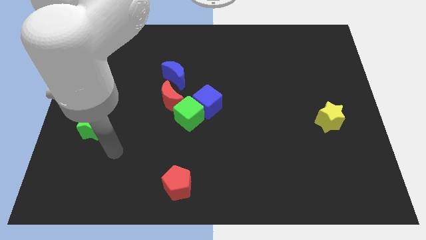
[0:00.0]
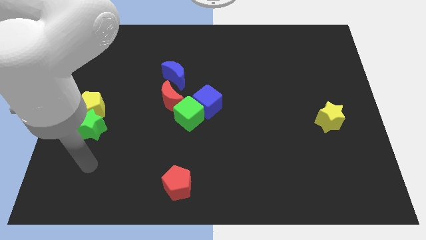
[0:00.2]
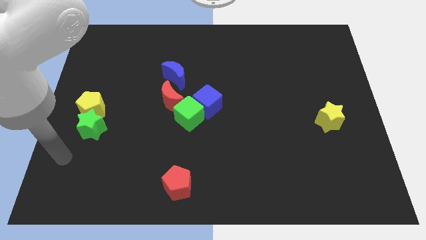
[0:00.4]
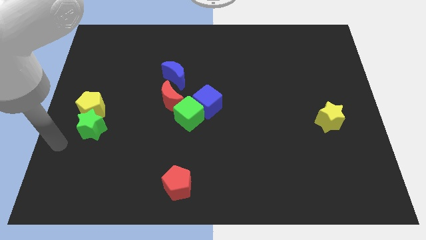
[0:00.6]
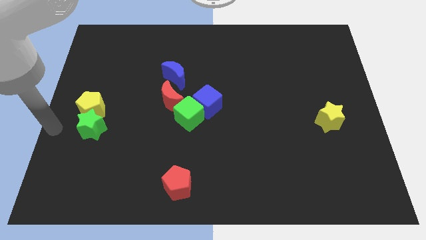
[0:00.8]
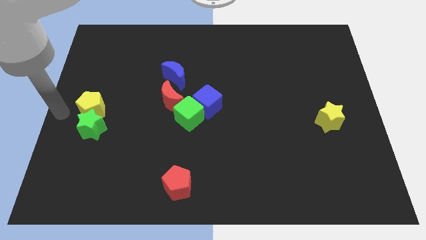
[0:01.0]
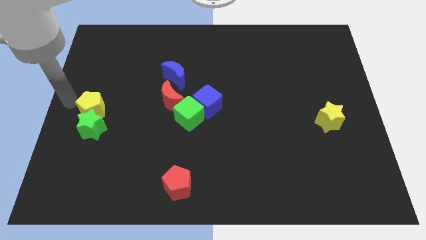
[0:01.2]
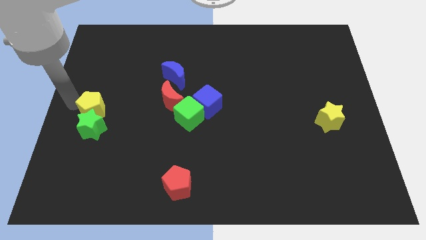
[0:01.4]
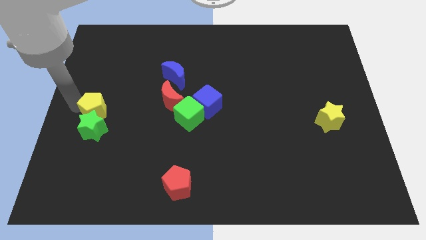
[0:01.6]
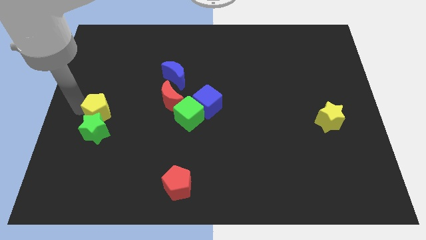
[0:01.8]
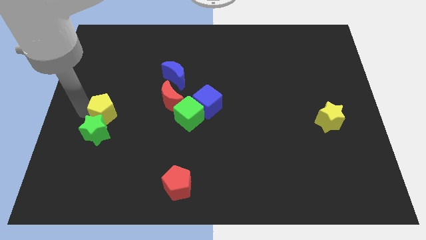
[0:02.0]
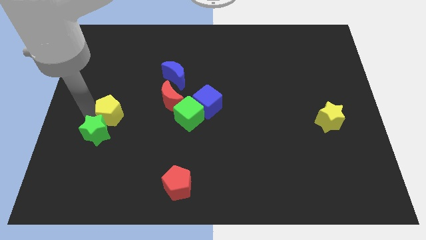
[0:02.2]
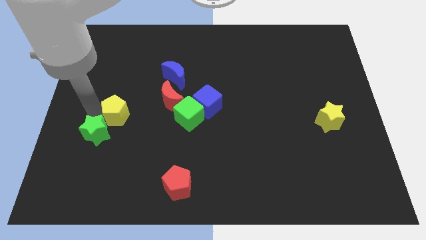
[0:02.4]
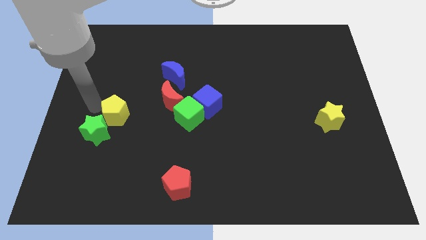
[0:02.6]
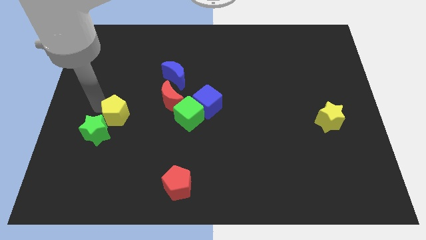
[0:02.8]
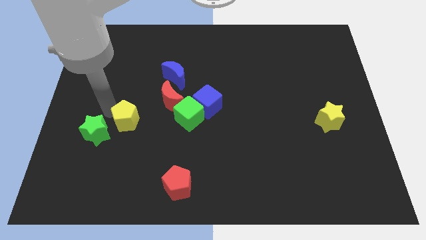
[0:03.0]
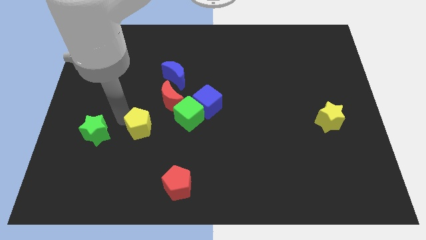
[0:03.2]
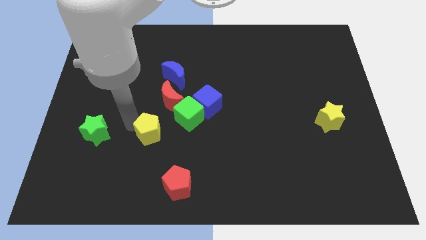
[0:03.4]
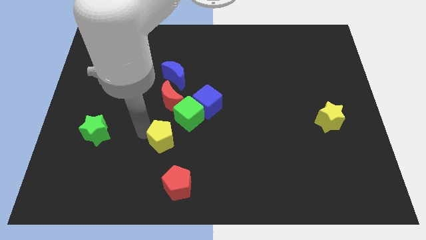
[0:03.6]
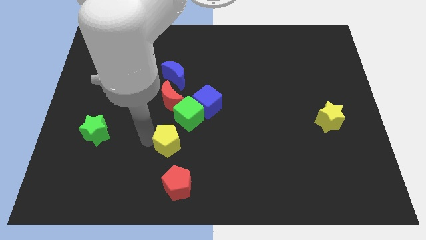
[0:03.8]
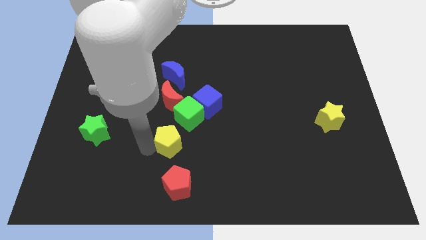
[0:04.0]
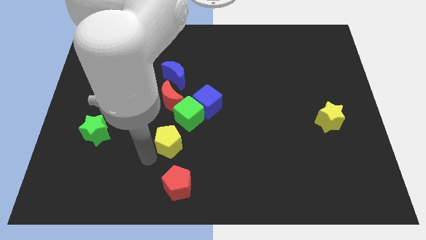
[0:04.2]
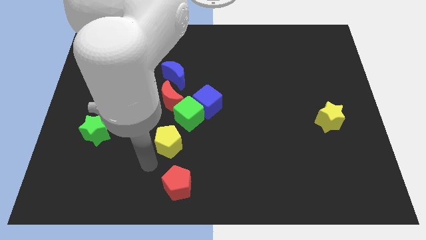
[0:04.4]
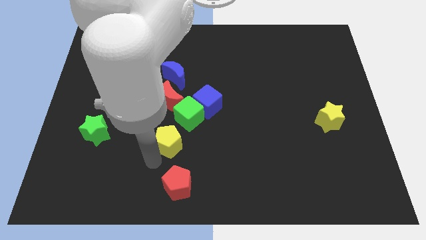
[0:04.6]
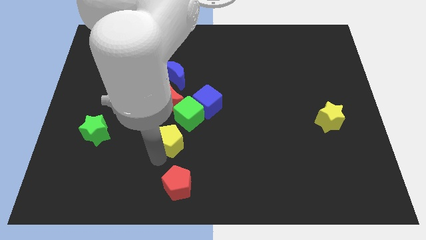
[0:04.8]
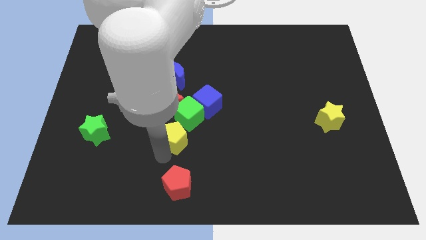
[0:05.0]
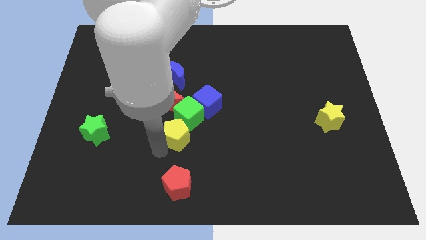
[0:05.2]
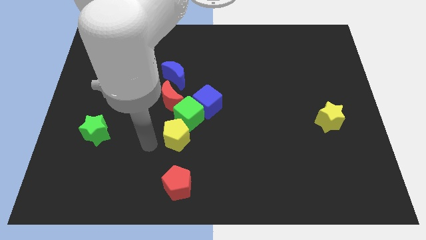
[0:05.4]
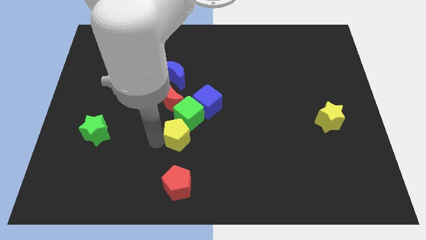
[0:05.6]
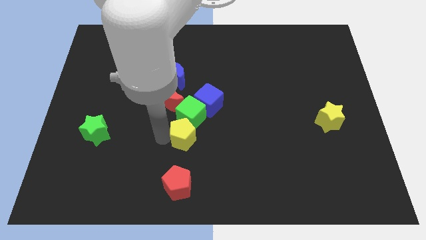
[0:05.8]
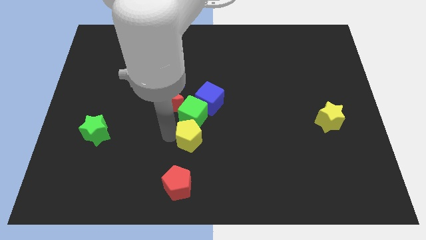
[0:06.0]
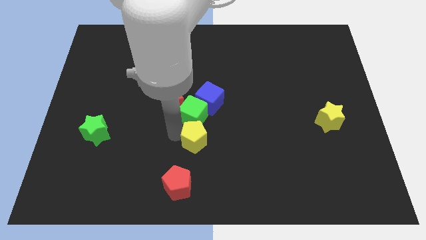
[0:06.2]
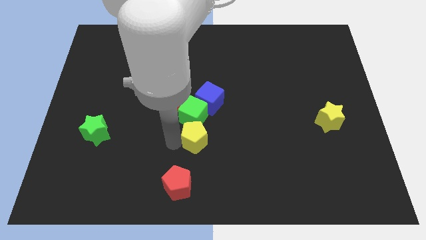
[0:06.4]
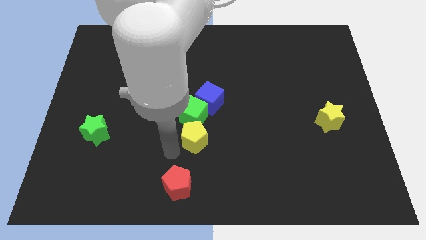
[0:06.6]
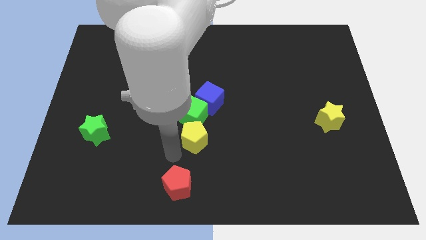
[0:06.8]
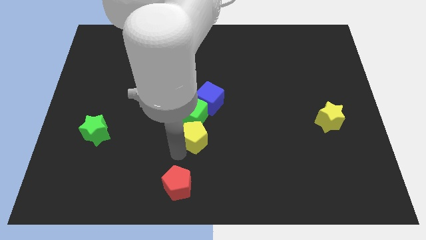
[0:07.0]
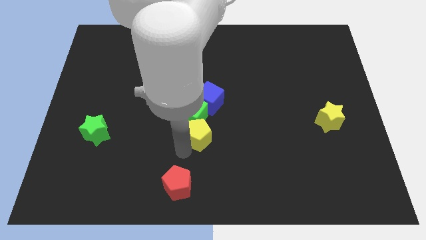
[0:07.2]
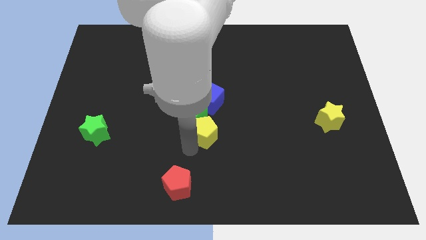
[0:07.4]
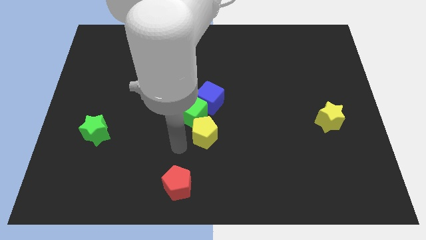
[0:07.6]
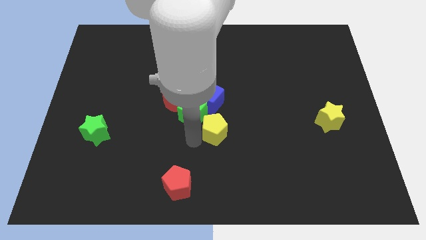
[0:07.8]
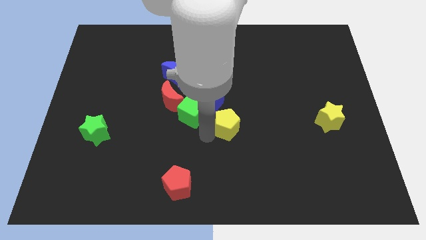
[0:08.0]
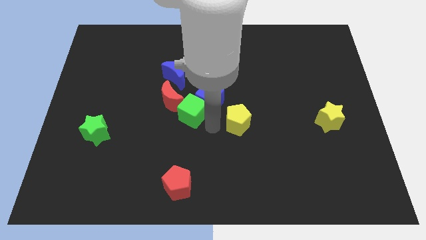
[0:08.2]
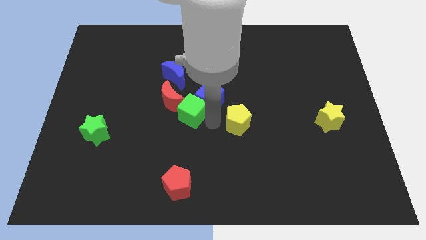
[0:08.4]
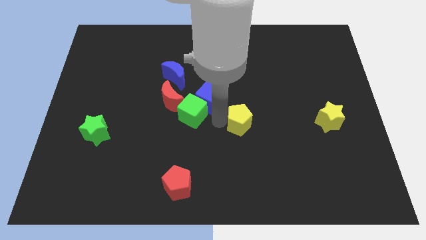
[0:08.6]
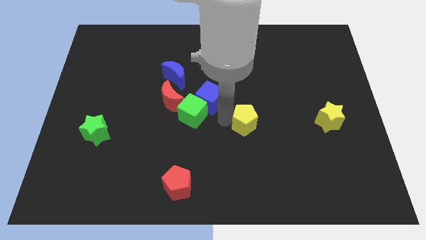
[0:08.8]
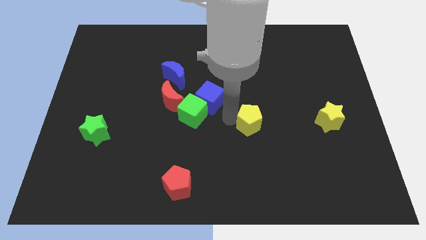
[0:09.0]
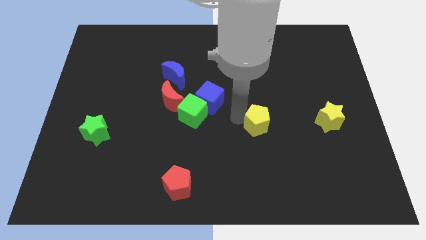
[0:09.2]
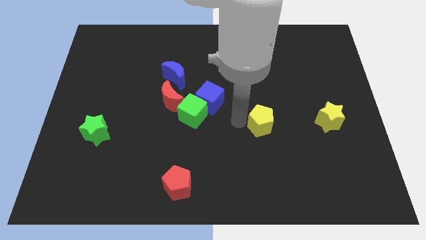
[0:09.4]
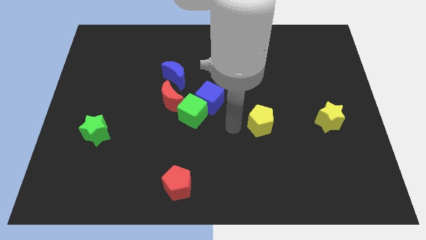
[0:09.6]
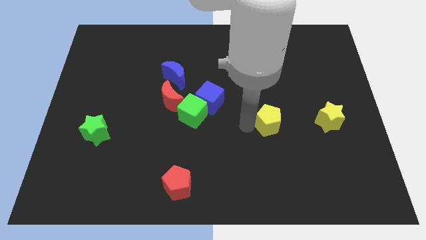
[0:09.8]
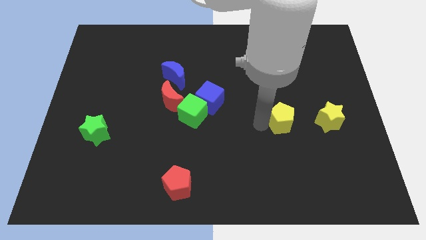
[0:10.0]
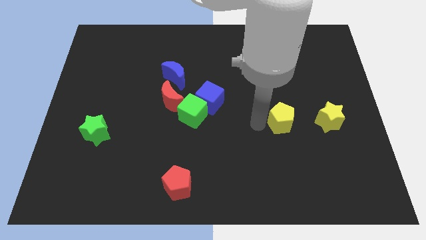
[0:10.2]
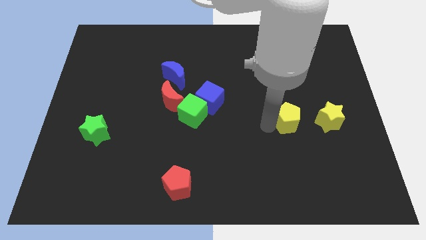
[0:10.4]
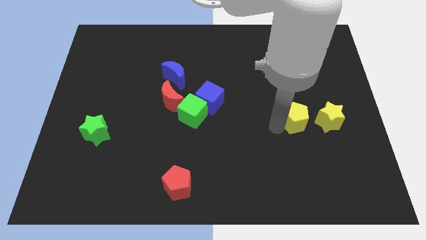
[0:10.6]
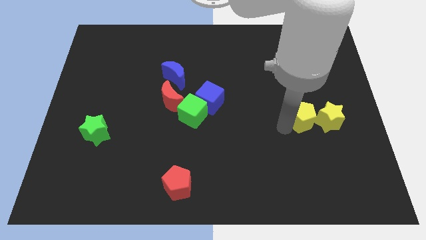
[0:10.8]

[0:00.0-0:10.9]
put the yellow pentagon next to the yellow star

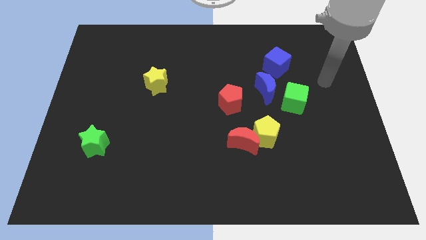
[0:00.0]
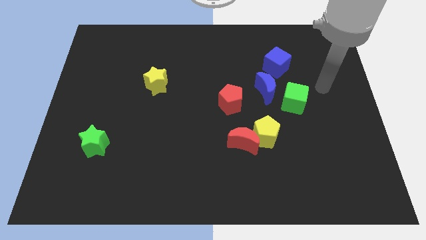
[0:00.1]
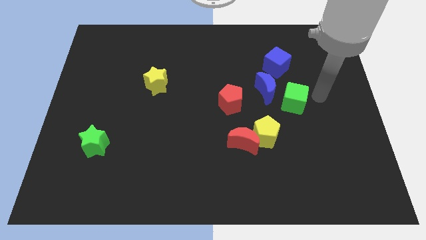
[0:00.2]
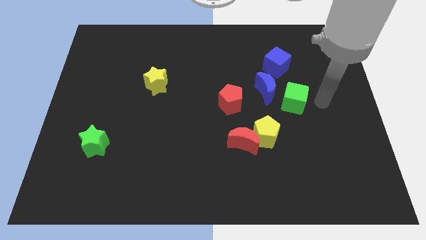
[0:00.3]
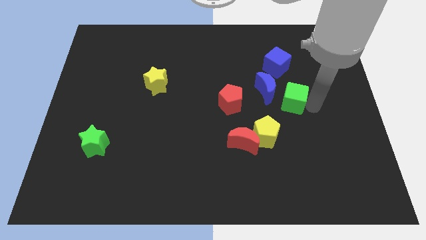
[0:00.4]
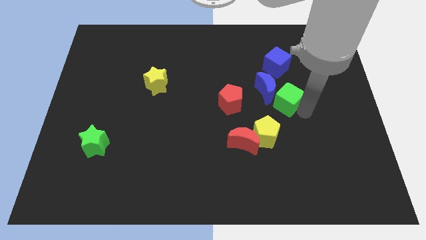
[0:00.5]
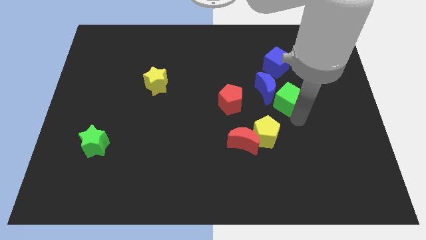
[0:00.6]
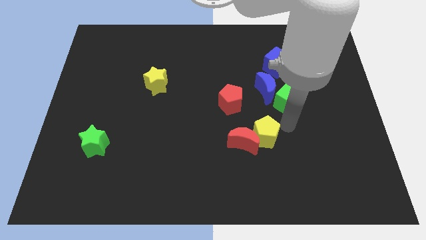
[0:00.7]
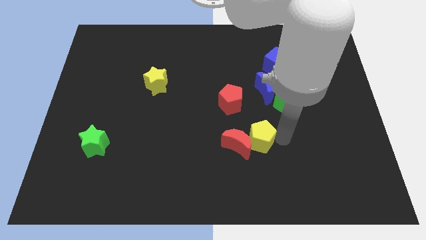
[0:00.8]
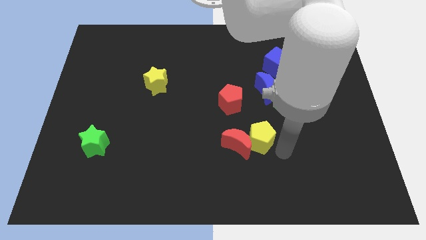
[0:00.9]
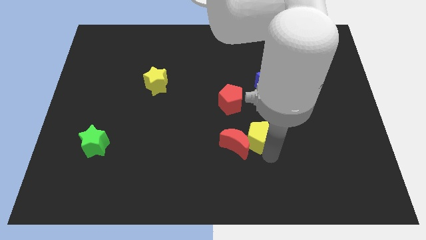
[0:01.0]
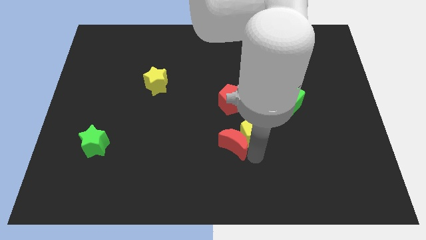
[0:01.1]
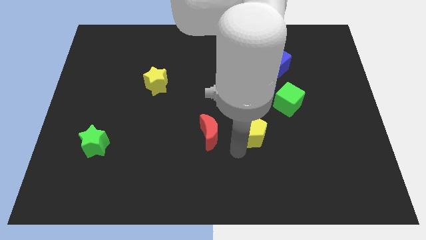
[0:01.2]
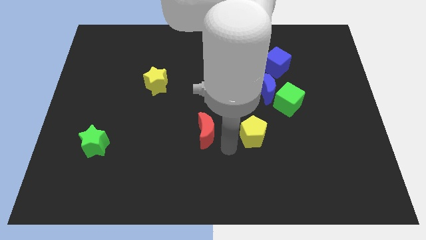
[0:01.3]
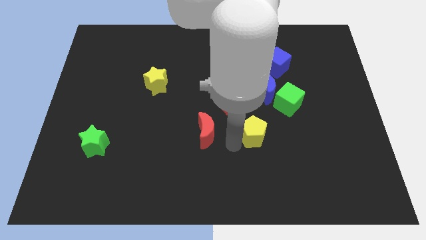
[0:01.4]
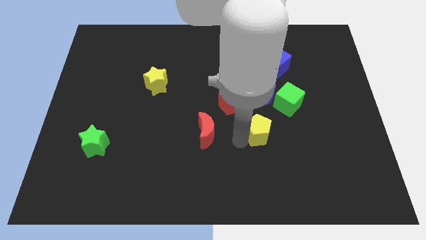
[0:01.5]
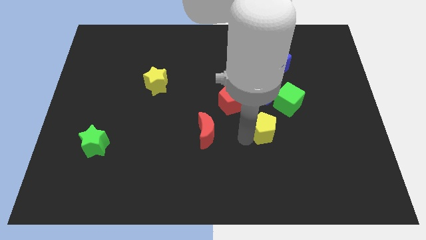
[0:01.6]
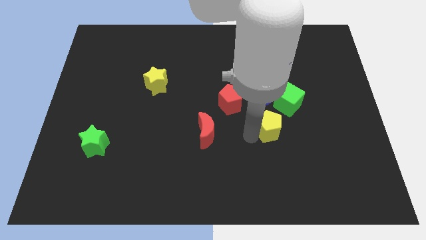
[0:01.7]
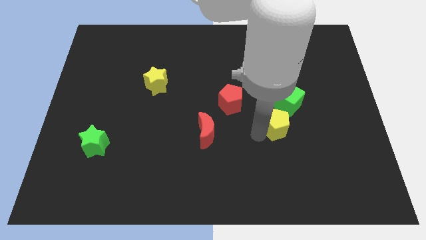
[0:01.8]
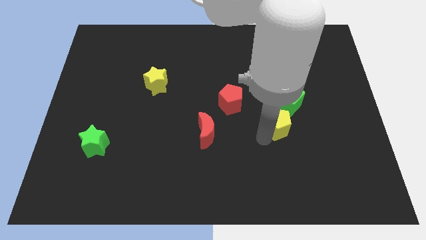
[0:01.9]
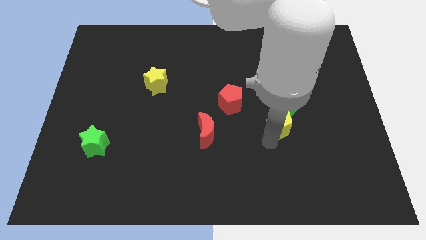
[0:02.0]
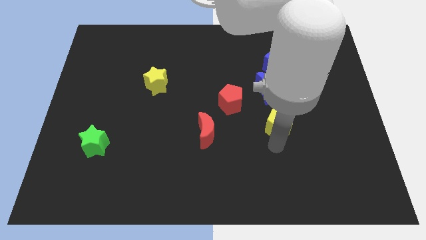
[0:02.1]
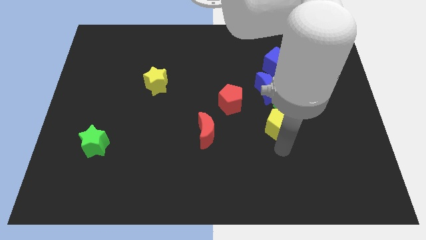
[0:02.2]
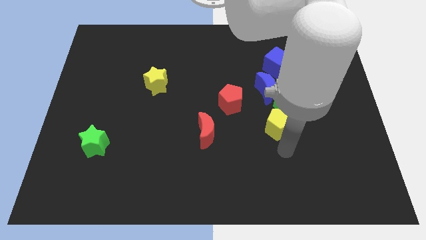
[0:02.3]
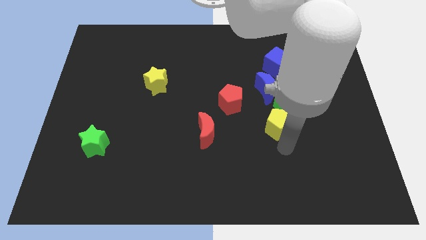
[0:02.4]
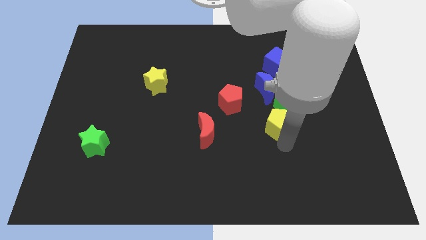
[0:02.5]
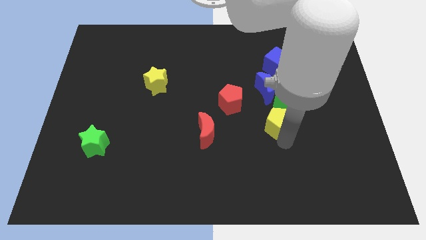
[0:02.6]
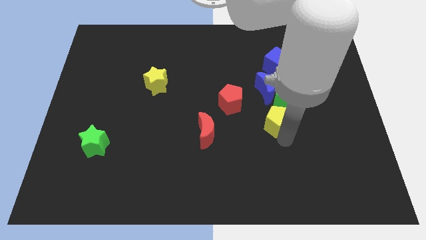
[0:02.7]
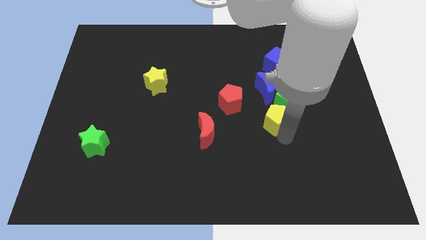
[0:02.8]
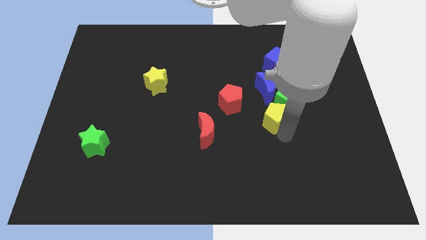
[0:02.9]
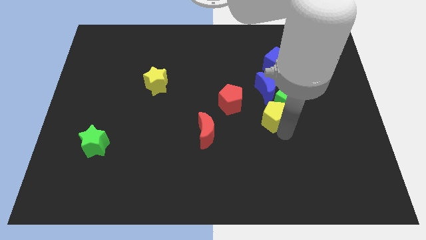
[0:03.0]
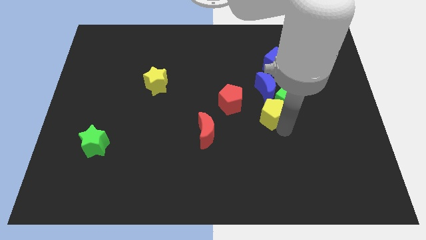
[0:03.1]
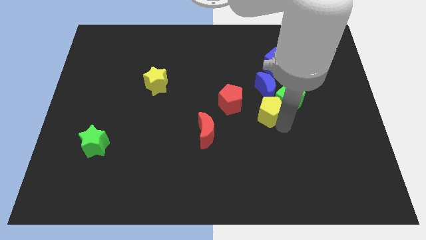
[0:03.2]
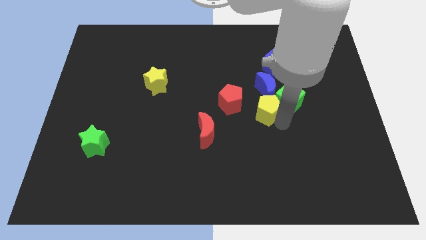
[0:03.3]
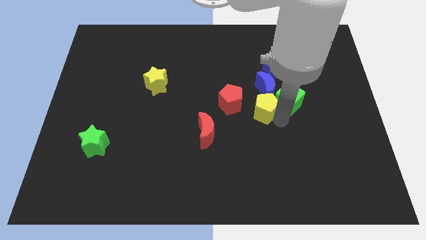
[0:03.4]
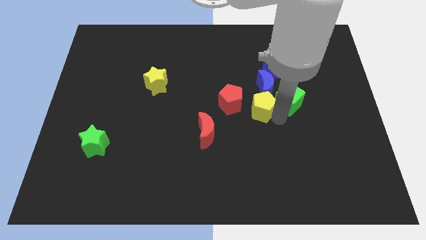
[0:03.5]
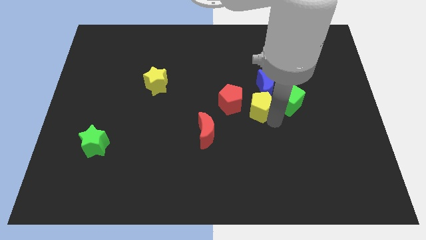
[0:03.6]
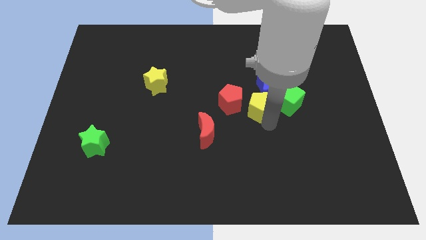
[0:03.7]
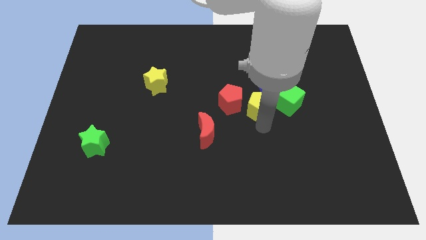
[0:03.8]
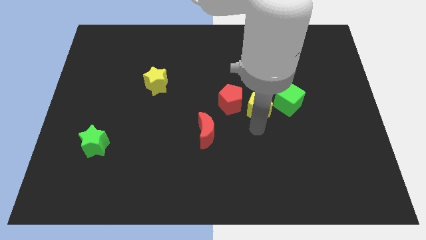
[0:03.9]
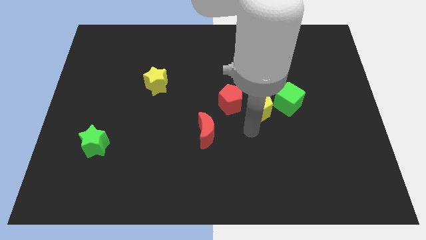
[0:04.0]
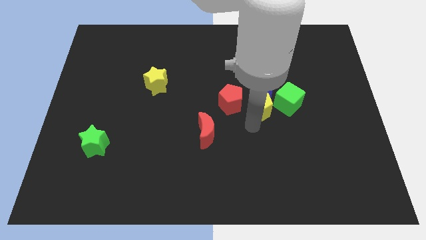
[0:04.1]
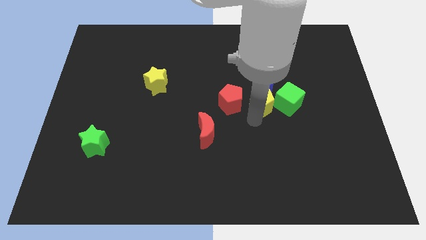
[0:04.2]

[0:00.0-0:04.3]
move the yellow pentagon close to the blue moon
